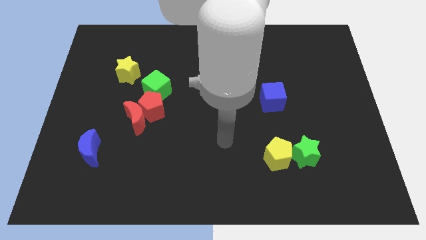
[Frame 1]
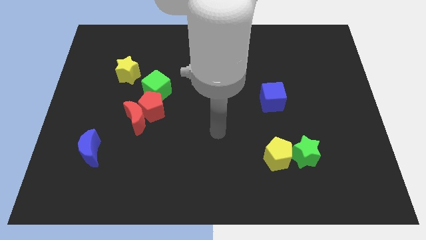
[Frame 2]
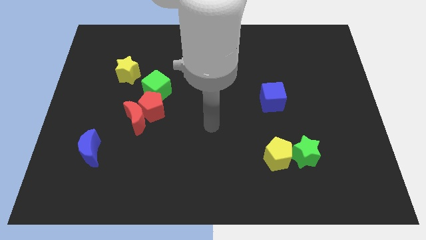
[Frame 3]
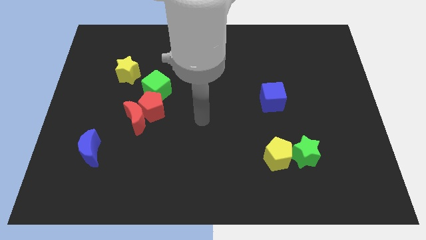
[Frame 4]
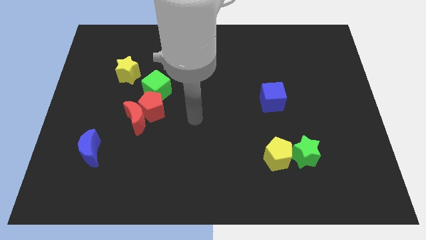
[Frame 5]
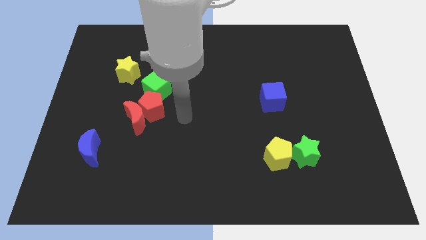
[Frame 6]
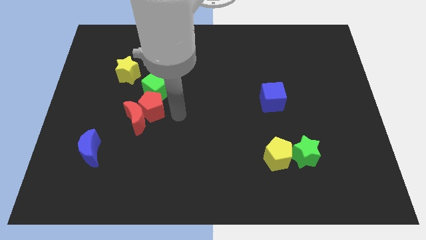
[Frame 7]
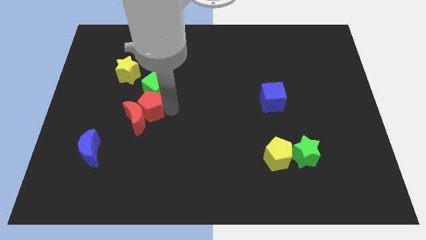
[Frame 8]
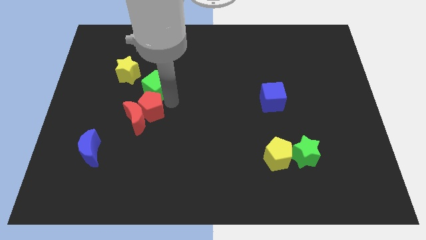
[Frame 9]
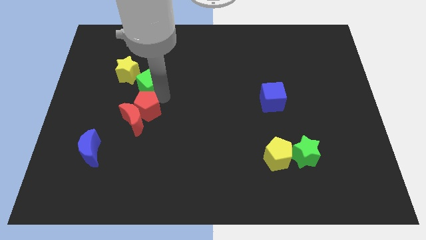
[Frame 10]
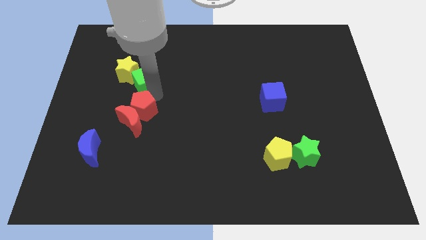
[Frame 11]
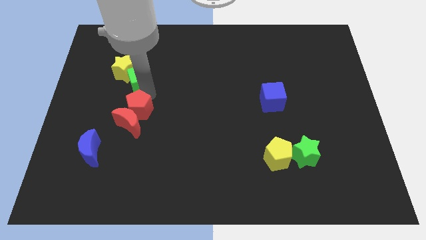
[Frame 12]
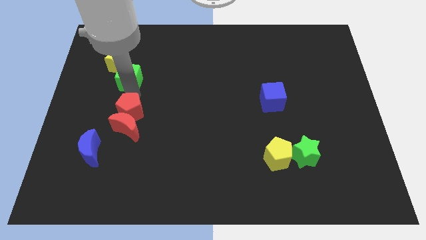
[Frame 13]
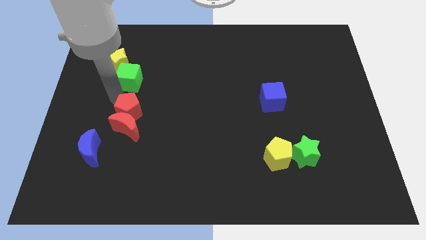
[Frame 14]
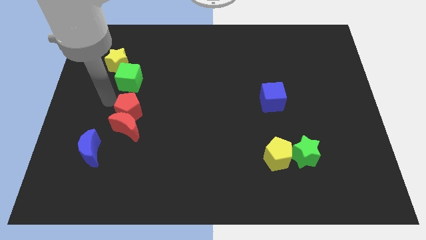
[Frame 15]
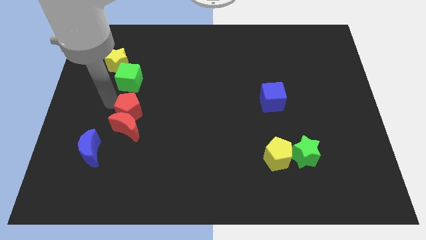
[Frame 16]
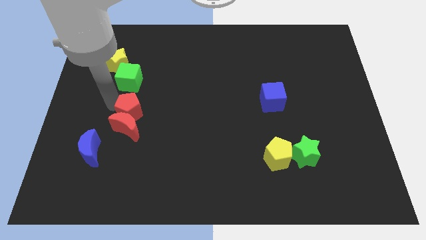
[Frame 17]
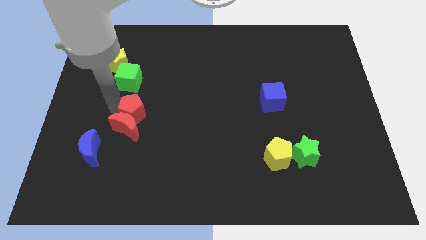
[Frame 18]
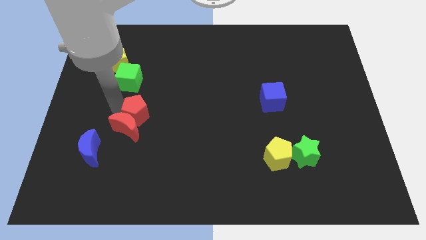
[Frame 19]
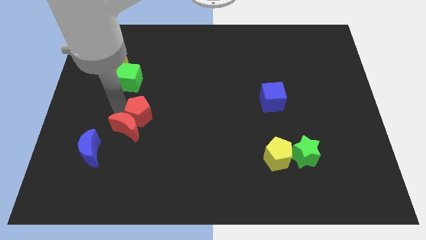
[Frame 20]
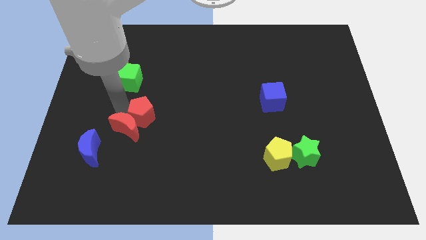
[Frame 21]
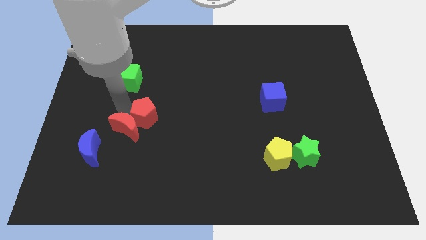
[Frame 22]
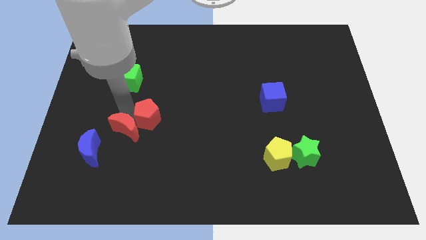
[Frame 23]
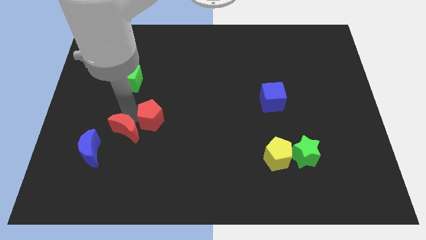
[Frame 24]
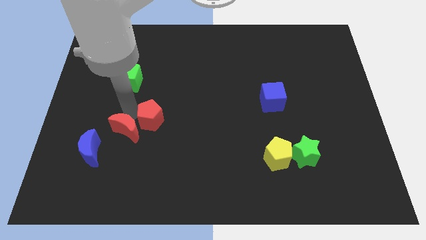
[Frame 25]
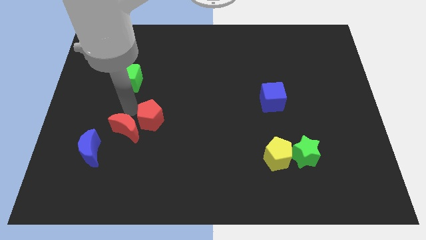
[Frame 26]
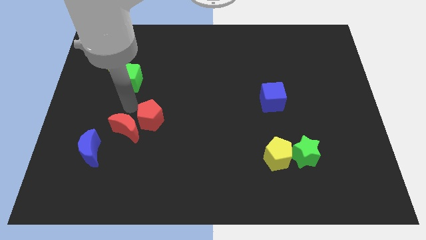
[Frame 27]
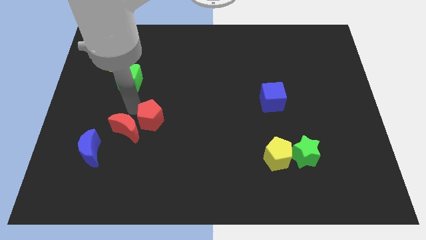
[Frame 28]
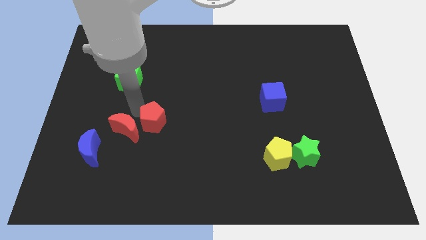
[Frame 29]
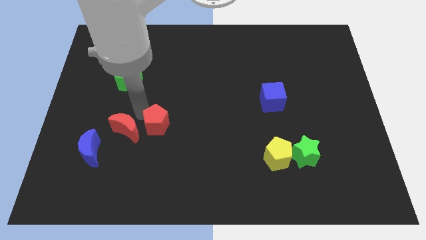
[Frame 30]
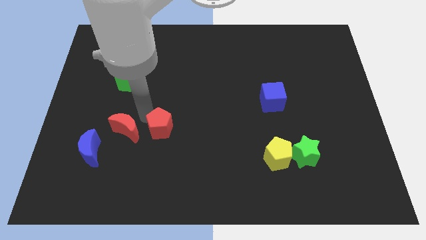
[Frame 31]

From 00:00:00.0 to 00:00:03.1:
move the red pentagon away from the red moon and green cube

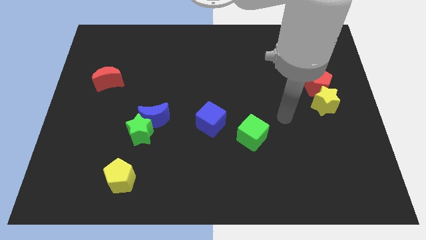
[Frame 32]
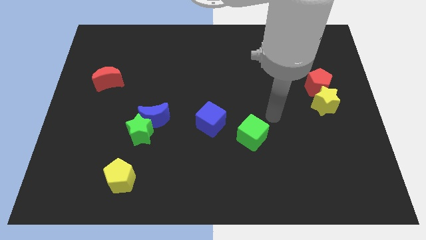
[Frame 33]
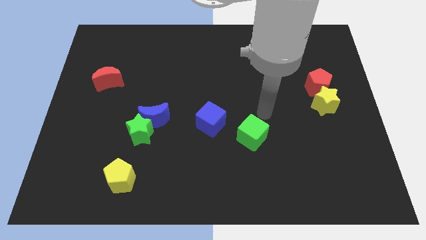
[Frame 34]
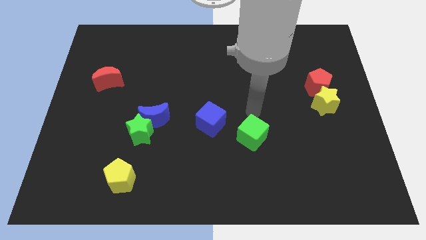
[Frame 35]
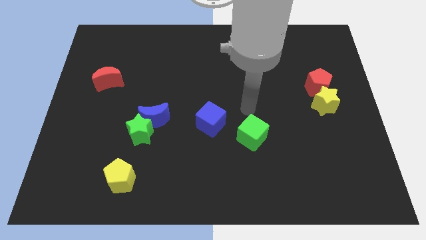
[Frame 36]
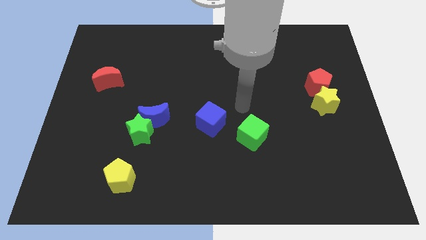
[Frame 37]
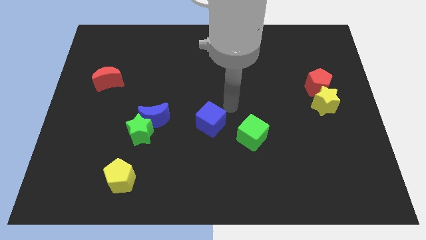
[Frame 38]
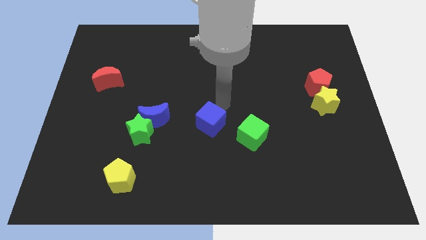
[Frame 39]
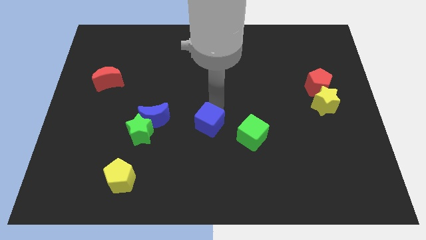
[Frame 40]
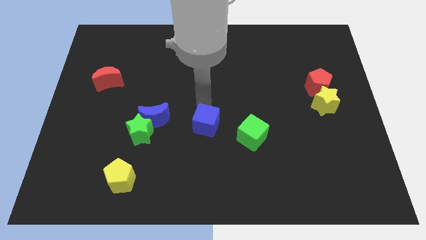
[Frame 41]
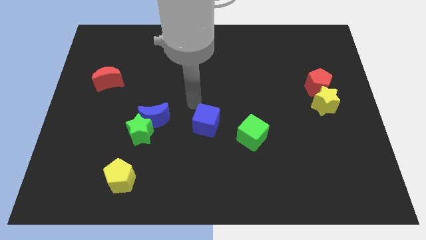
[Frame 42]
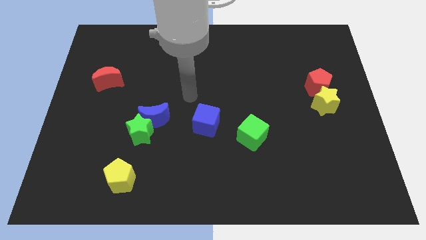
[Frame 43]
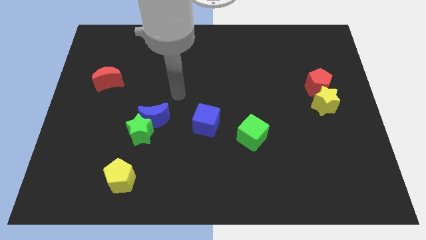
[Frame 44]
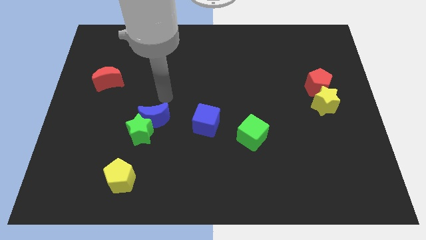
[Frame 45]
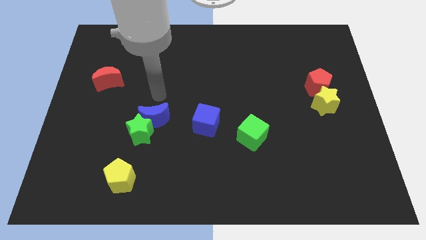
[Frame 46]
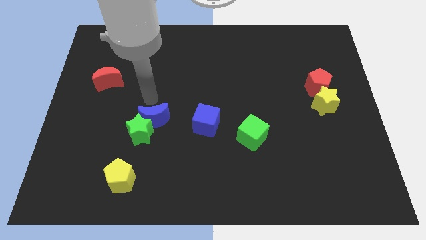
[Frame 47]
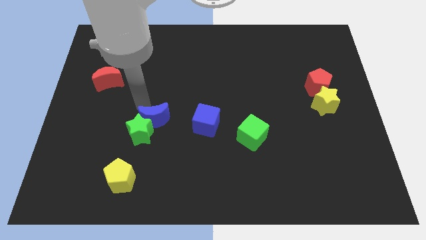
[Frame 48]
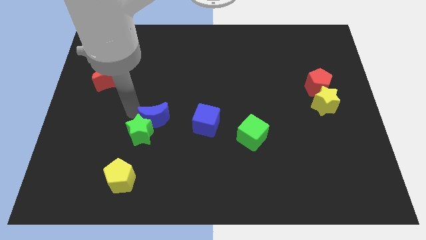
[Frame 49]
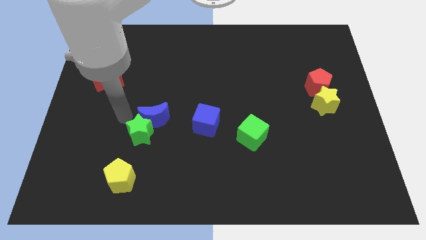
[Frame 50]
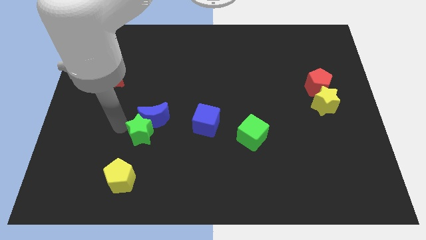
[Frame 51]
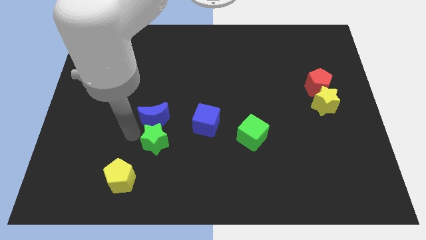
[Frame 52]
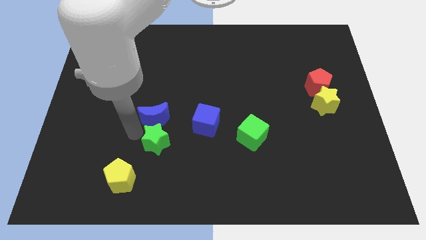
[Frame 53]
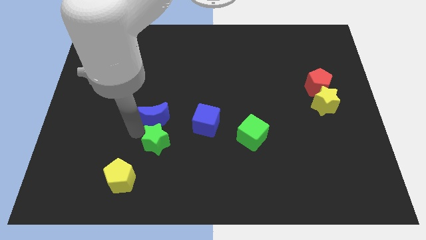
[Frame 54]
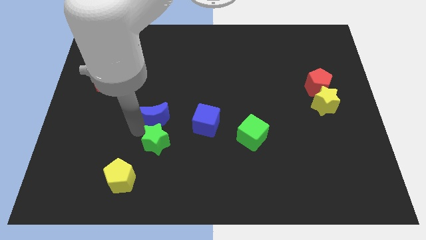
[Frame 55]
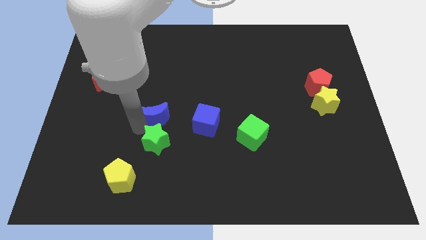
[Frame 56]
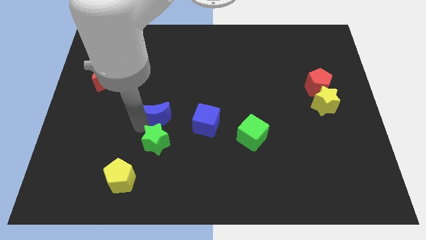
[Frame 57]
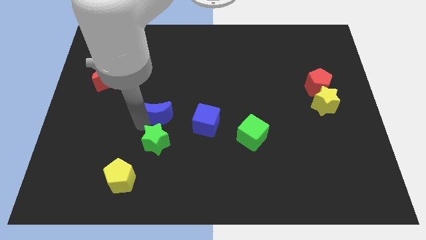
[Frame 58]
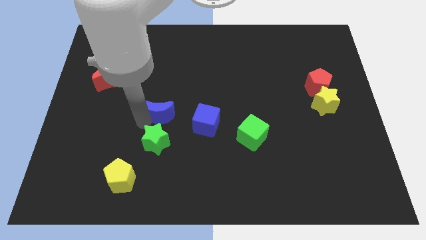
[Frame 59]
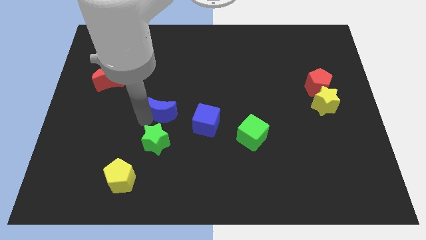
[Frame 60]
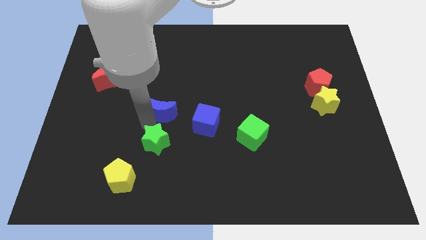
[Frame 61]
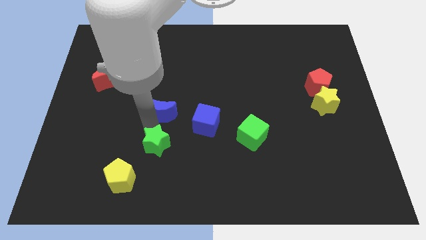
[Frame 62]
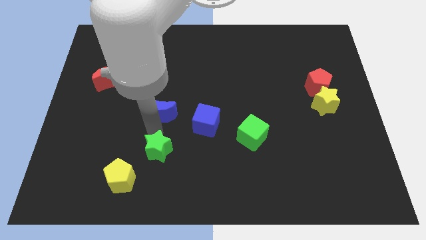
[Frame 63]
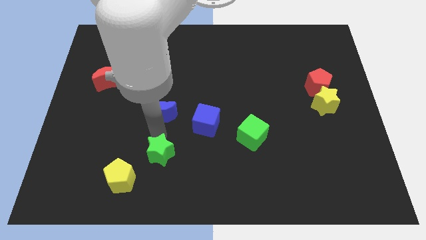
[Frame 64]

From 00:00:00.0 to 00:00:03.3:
separate the blue moon from the green star

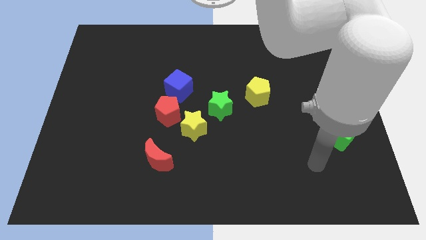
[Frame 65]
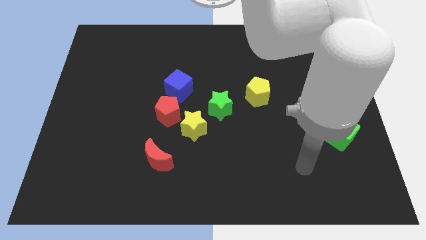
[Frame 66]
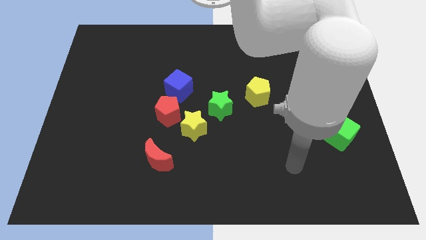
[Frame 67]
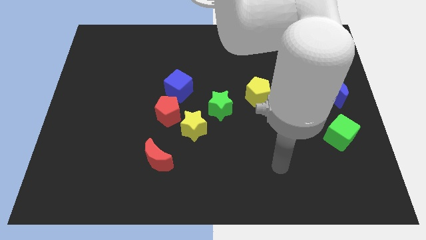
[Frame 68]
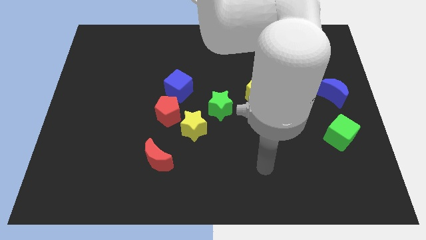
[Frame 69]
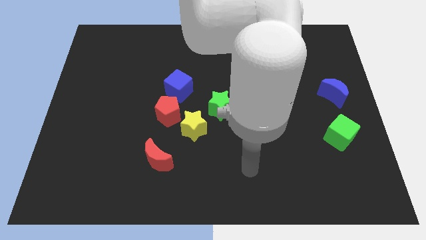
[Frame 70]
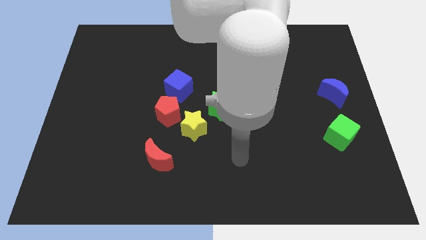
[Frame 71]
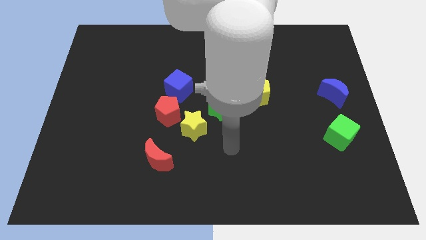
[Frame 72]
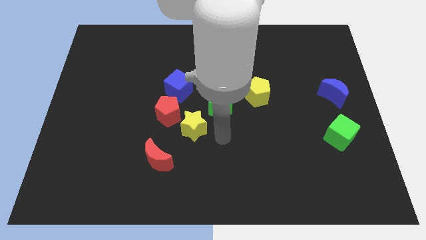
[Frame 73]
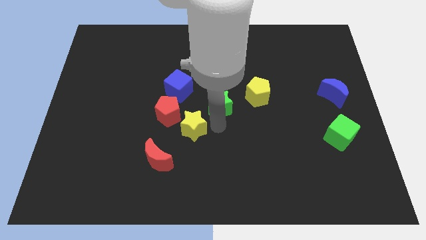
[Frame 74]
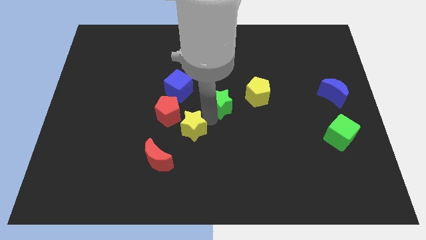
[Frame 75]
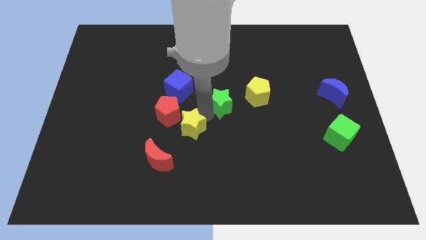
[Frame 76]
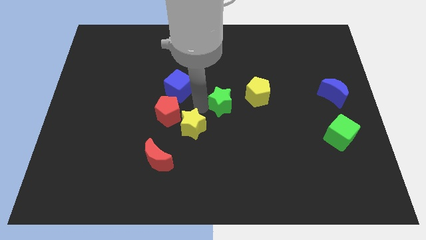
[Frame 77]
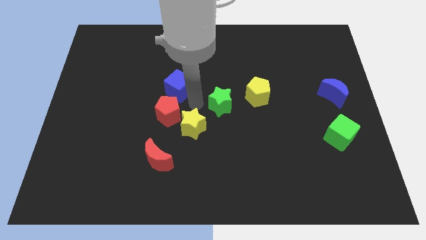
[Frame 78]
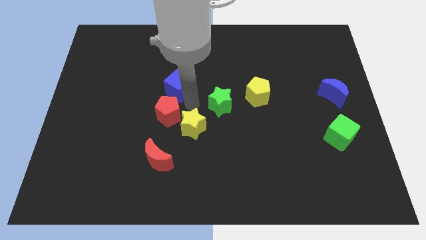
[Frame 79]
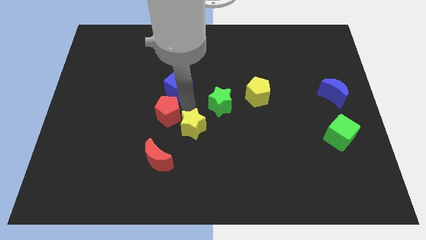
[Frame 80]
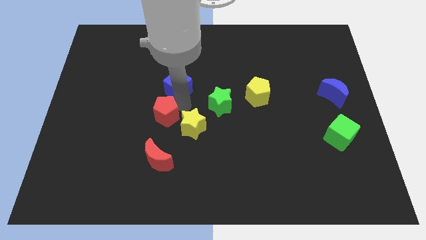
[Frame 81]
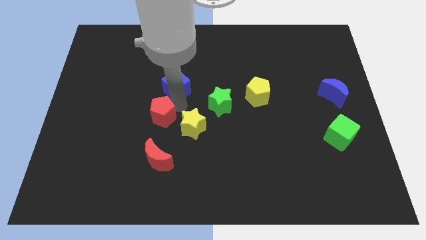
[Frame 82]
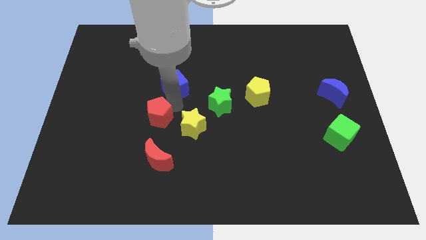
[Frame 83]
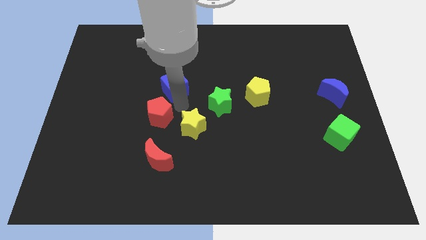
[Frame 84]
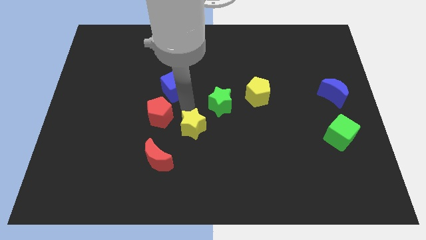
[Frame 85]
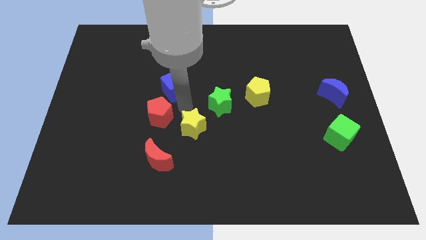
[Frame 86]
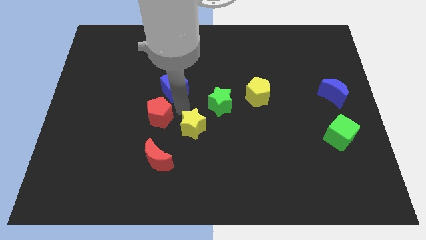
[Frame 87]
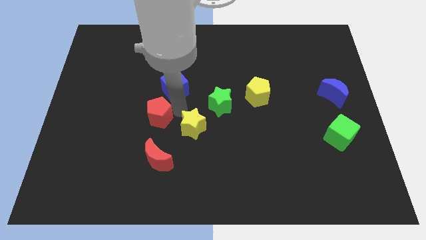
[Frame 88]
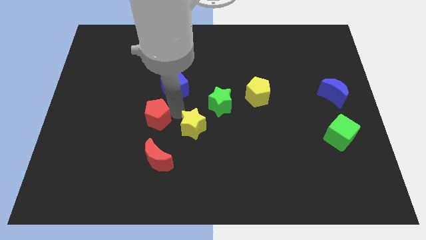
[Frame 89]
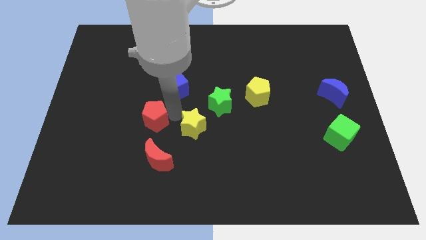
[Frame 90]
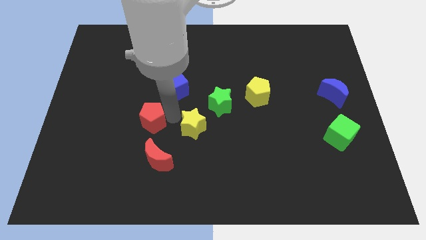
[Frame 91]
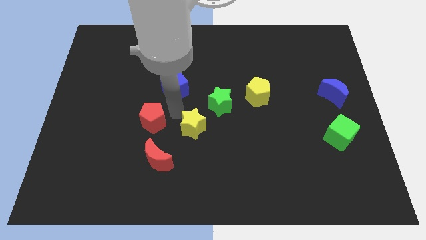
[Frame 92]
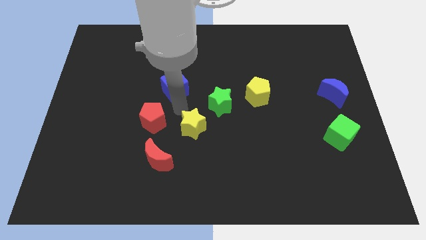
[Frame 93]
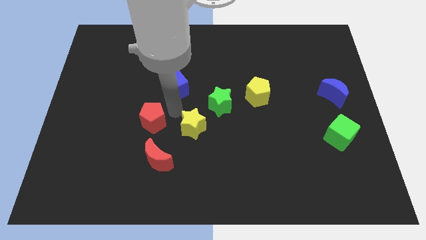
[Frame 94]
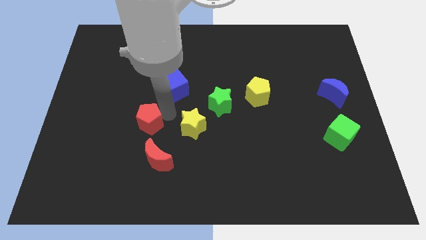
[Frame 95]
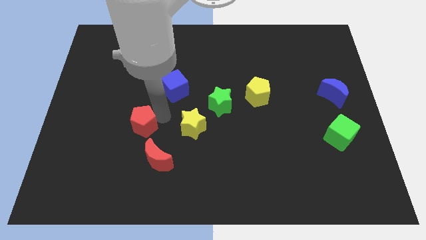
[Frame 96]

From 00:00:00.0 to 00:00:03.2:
pull the red pentagon apart from the yellow star and blue cube
